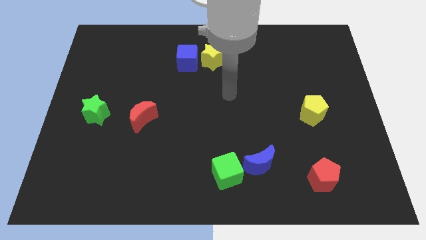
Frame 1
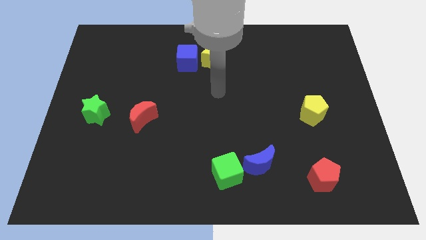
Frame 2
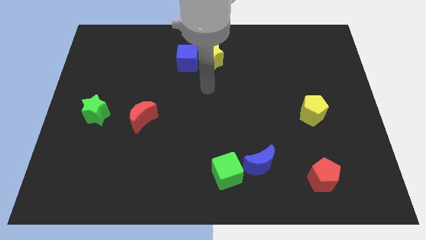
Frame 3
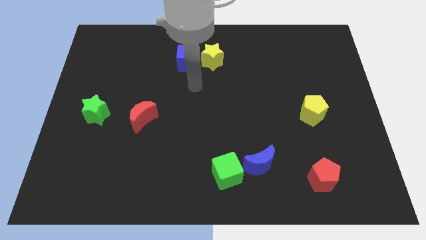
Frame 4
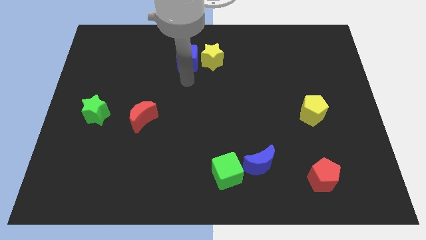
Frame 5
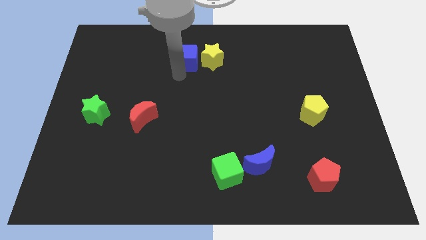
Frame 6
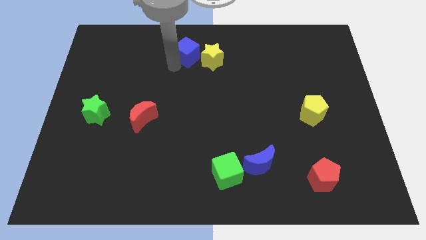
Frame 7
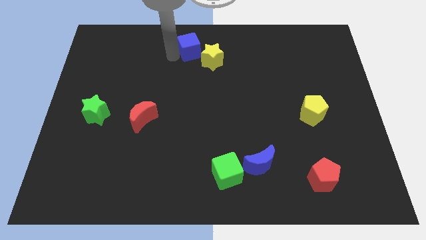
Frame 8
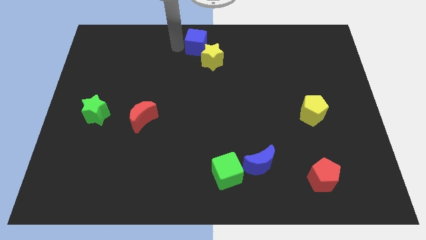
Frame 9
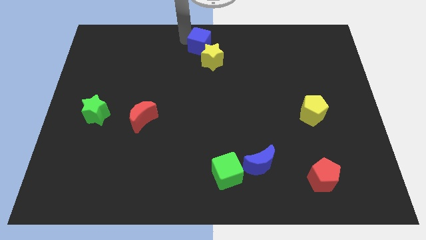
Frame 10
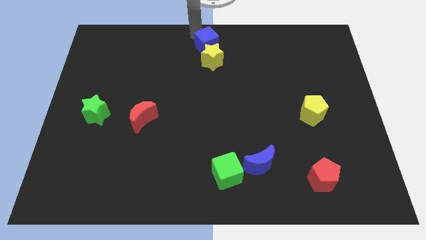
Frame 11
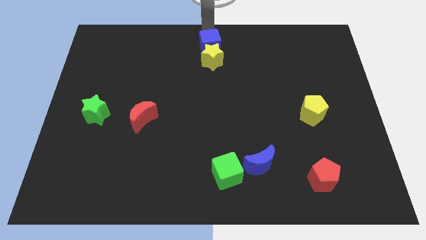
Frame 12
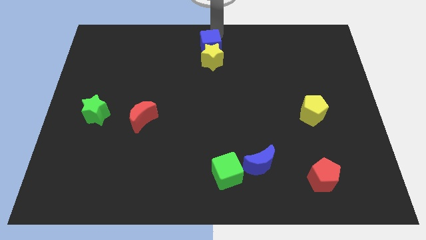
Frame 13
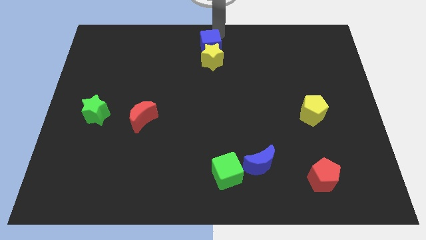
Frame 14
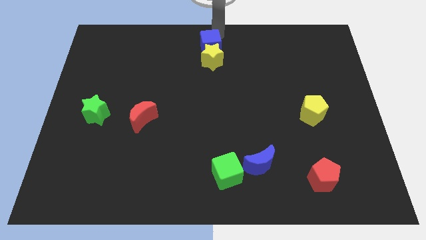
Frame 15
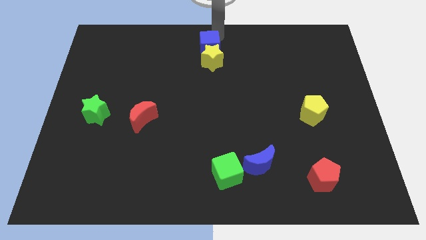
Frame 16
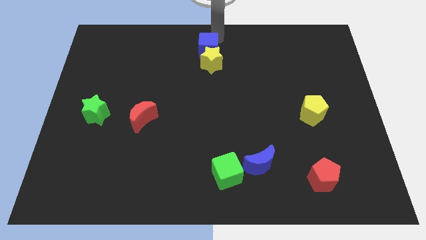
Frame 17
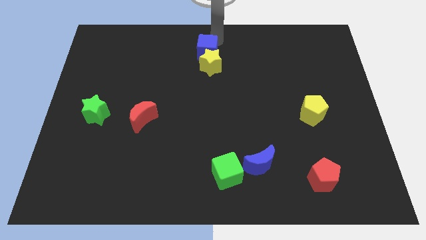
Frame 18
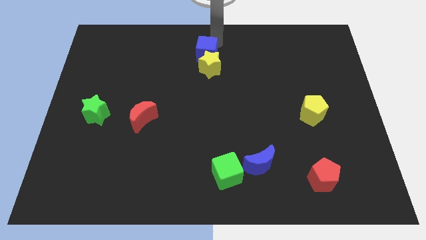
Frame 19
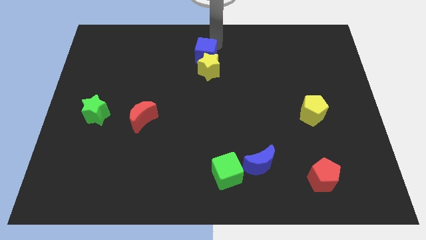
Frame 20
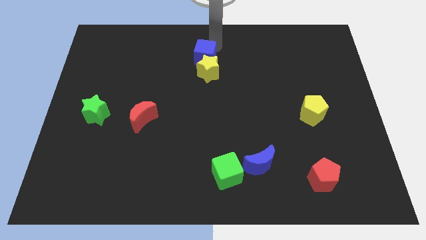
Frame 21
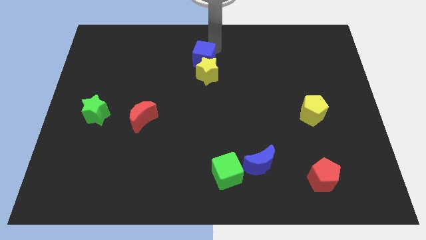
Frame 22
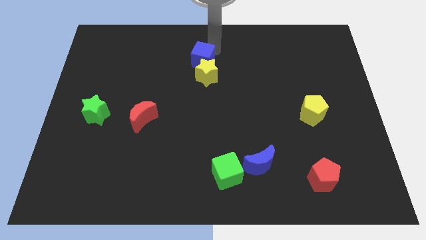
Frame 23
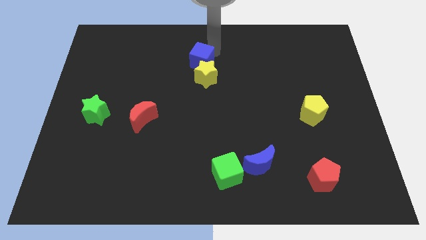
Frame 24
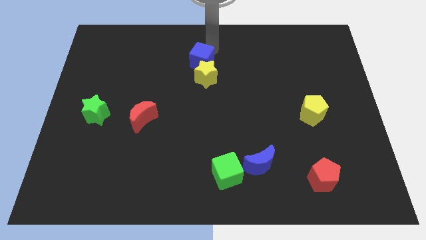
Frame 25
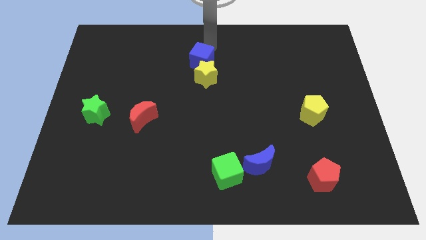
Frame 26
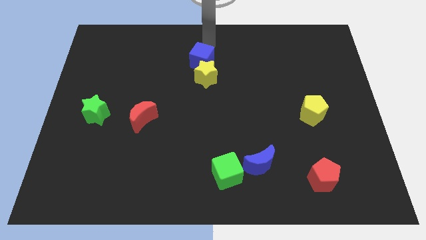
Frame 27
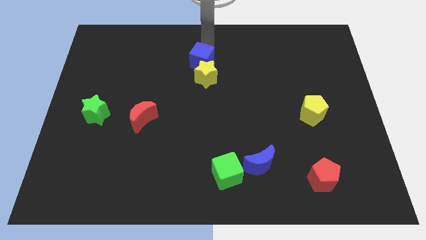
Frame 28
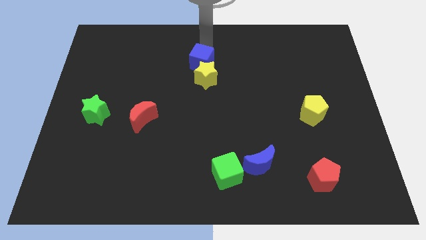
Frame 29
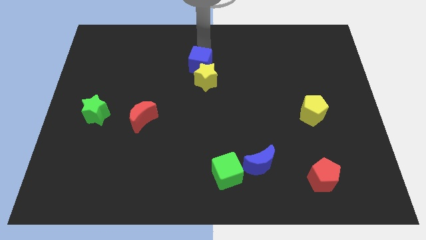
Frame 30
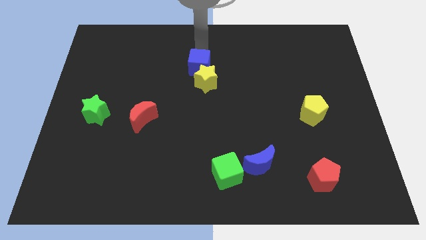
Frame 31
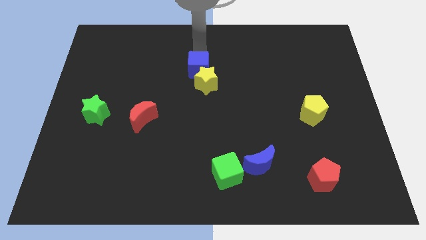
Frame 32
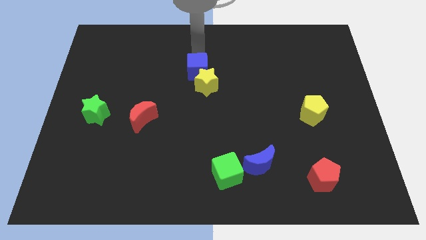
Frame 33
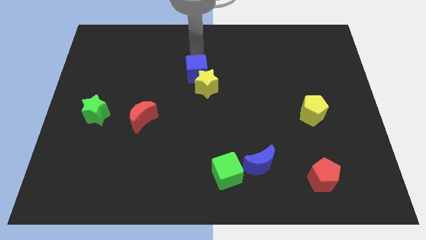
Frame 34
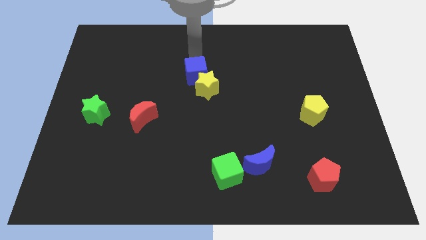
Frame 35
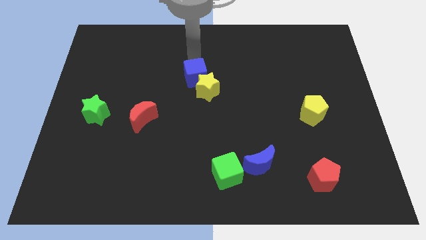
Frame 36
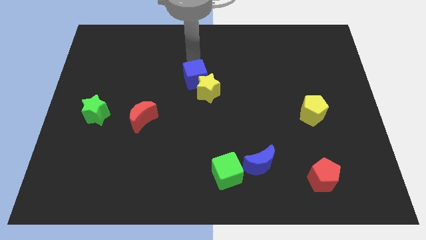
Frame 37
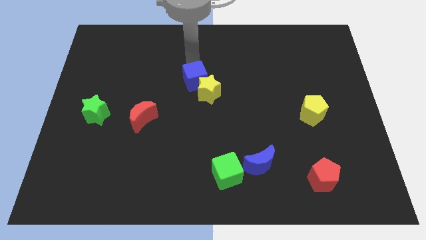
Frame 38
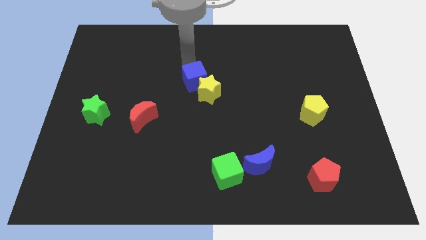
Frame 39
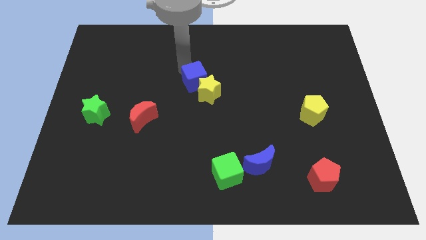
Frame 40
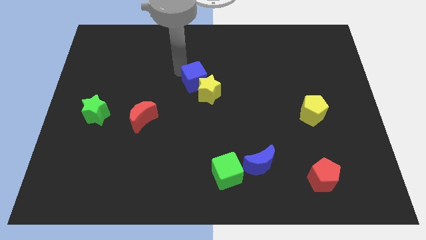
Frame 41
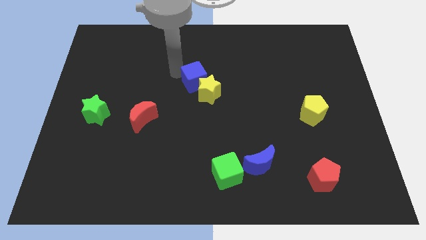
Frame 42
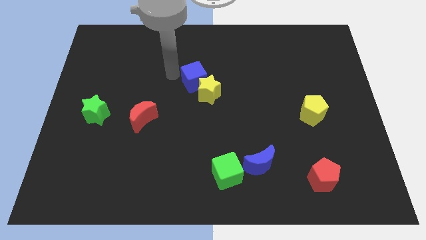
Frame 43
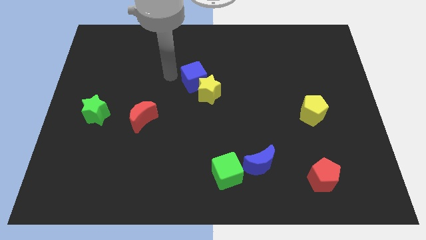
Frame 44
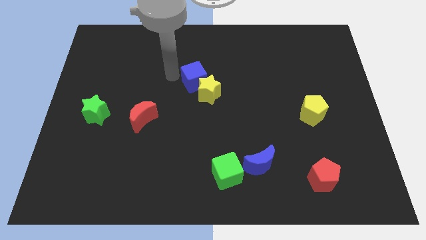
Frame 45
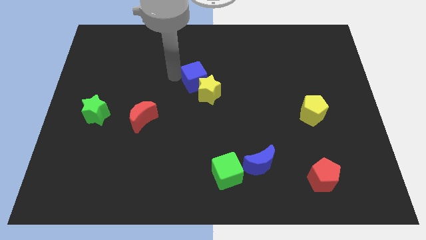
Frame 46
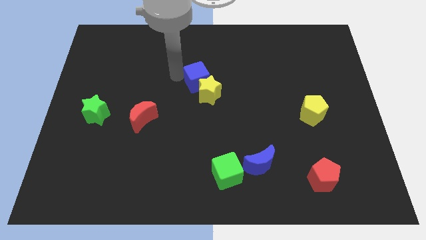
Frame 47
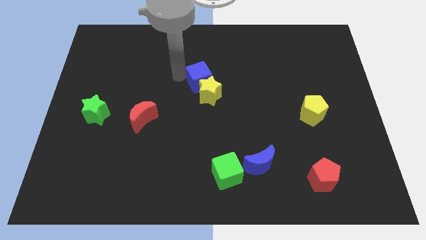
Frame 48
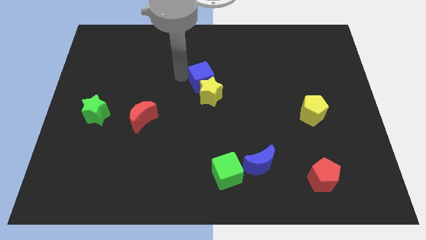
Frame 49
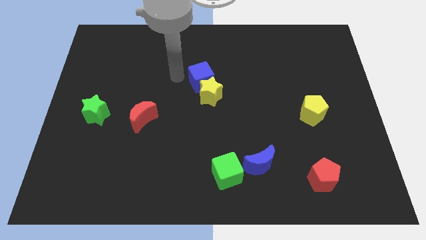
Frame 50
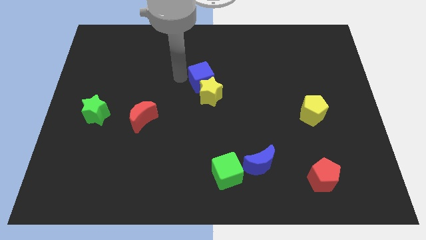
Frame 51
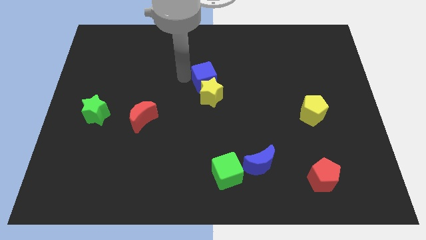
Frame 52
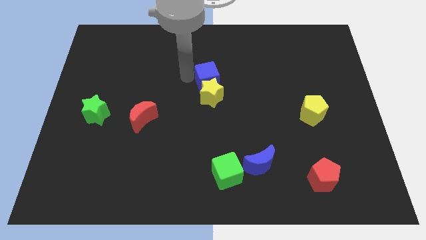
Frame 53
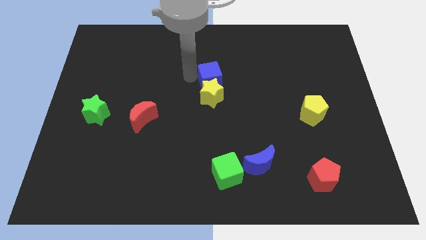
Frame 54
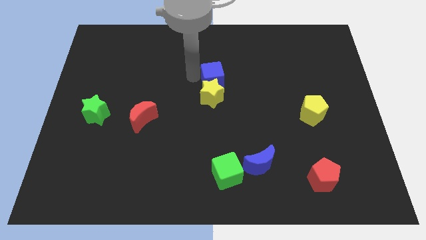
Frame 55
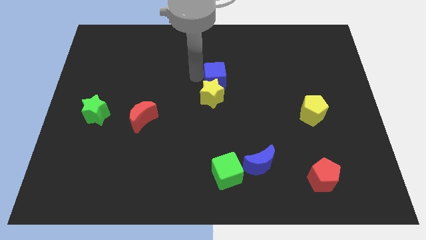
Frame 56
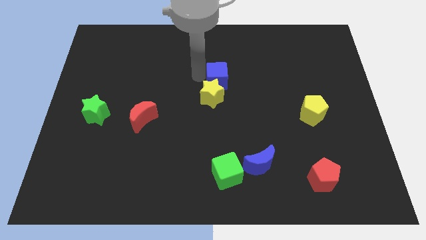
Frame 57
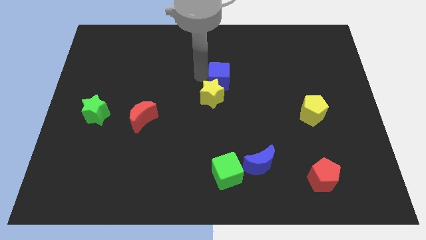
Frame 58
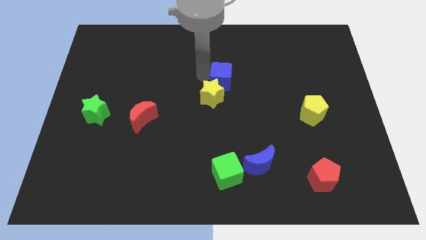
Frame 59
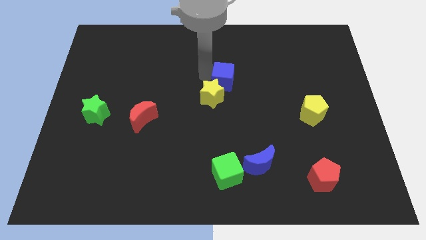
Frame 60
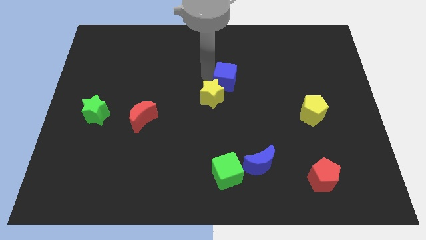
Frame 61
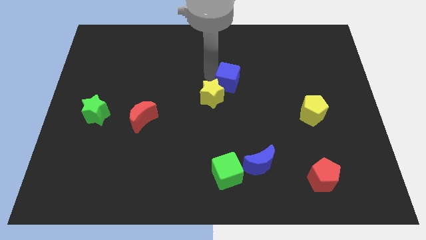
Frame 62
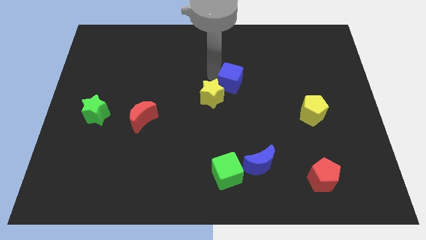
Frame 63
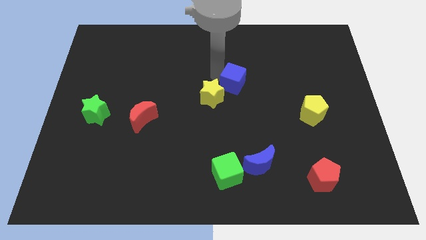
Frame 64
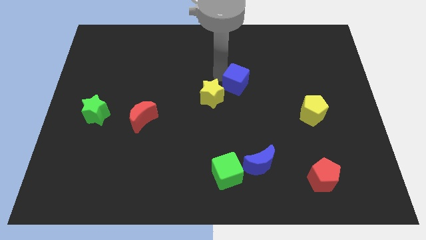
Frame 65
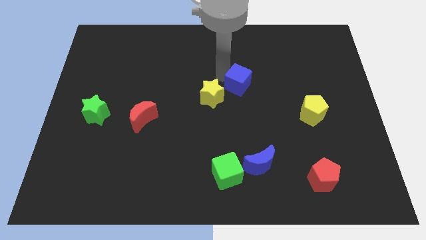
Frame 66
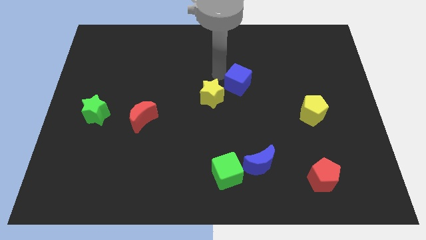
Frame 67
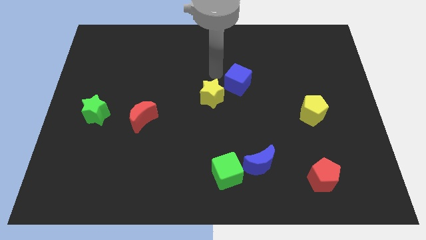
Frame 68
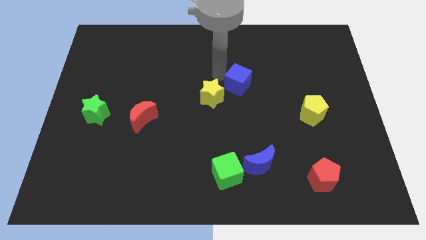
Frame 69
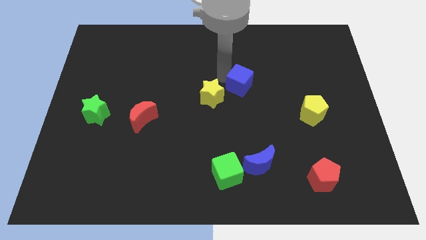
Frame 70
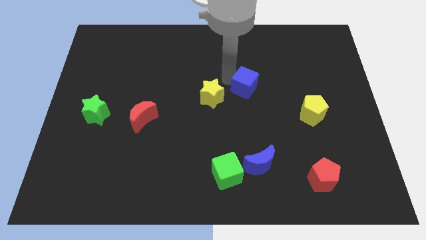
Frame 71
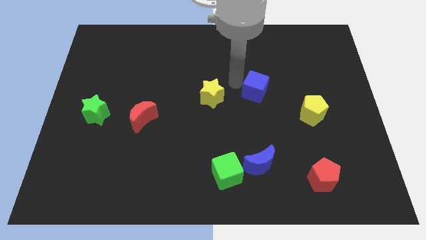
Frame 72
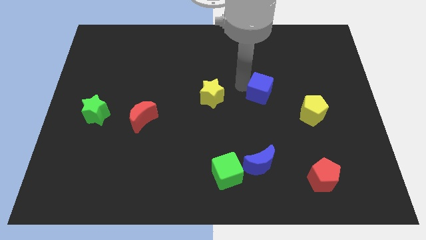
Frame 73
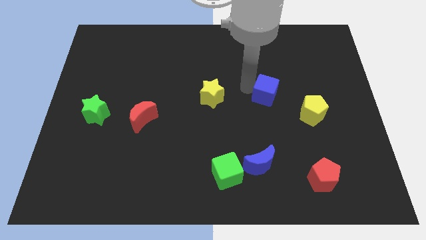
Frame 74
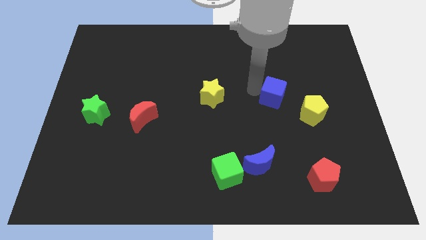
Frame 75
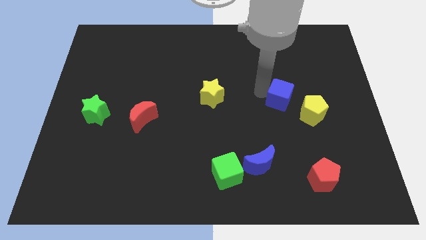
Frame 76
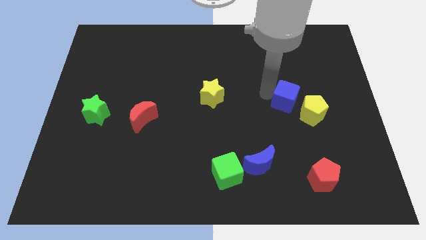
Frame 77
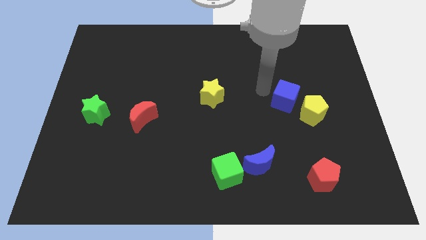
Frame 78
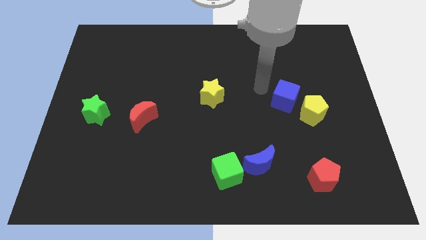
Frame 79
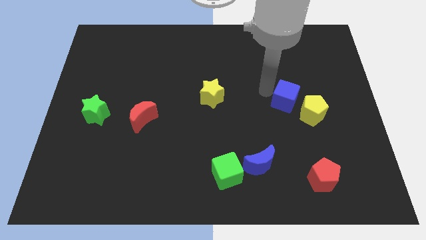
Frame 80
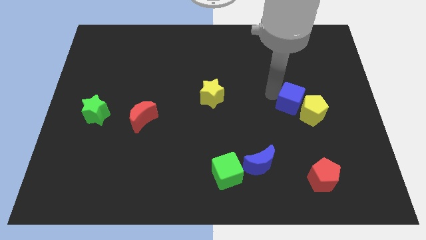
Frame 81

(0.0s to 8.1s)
slide the blue cube to the yellow pentagon

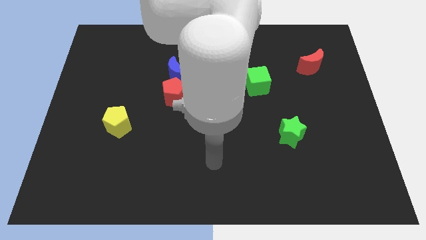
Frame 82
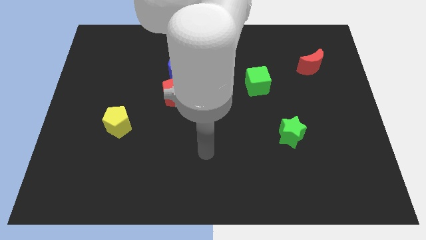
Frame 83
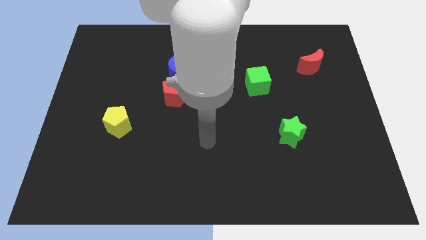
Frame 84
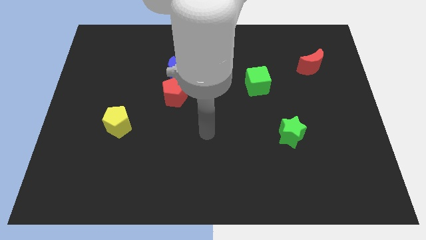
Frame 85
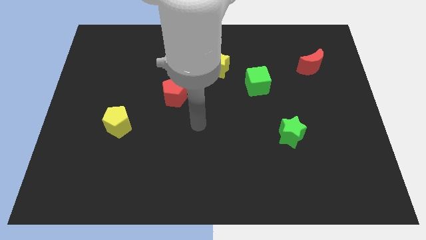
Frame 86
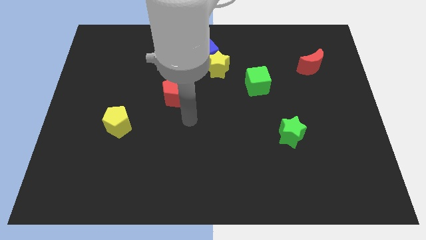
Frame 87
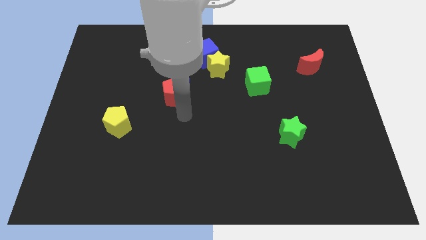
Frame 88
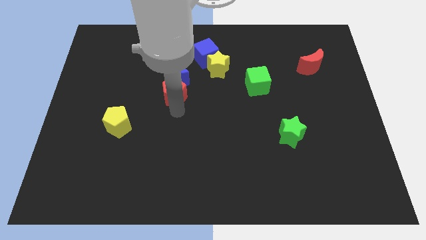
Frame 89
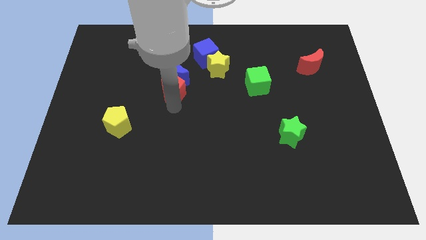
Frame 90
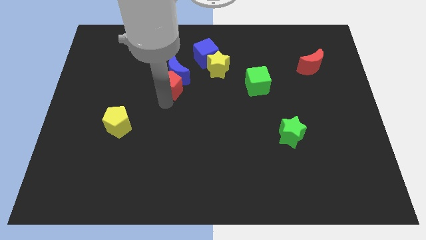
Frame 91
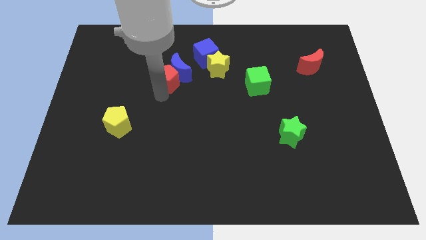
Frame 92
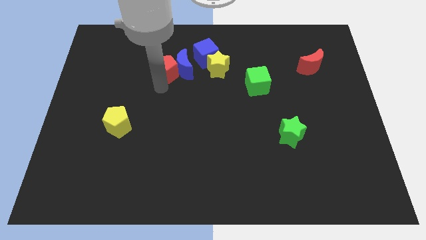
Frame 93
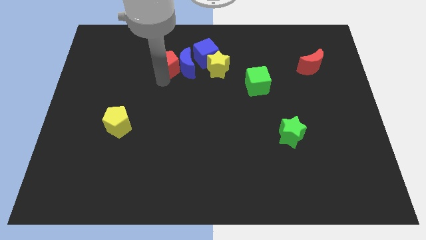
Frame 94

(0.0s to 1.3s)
move the blue moon towards the blue cube
